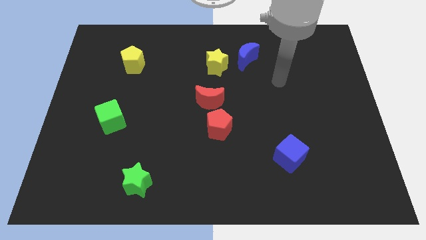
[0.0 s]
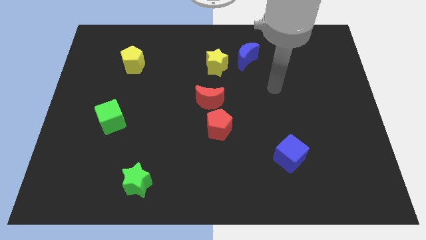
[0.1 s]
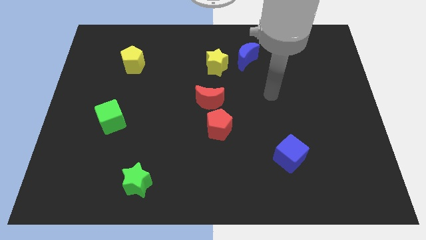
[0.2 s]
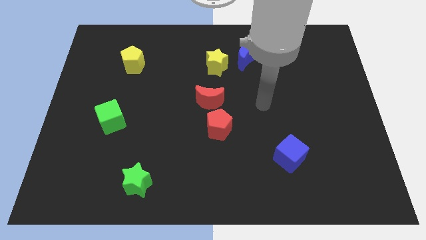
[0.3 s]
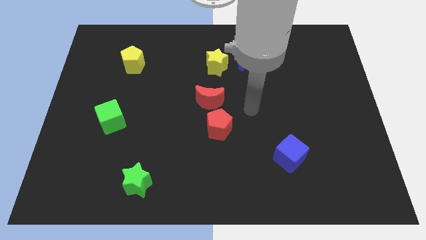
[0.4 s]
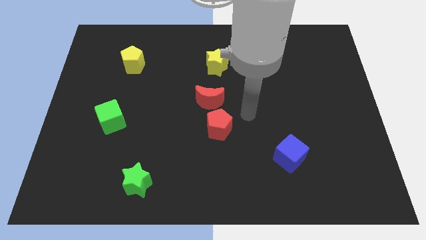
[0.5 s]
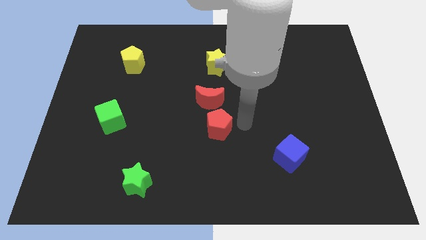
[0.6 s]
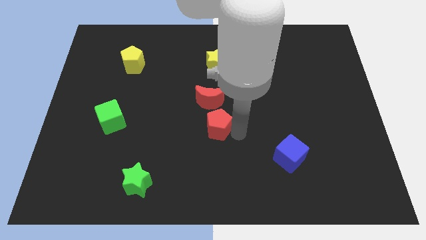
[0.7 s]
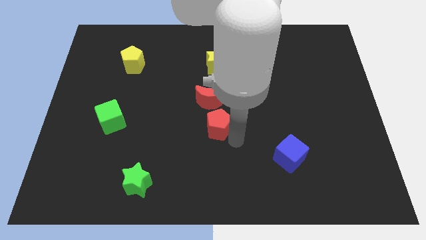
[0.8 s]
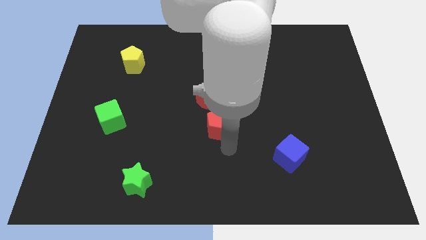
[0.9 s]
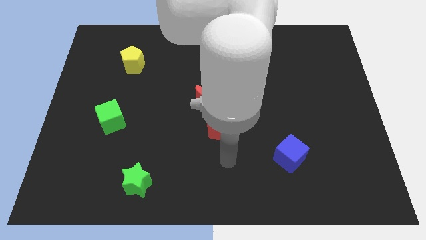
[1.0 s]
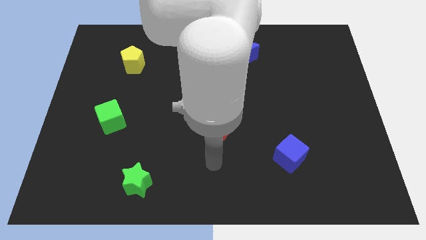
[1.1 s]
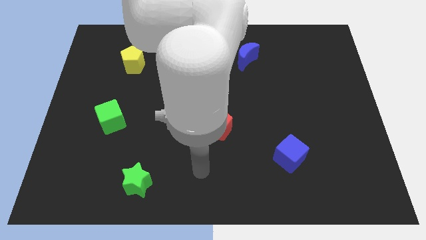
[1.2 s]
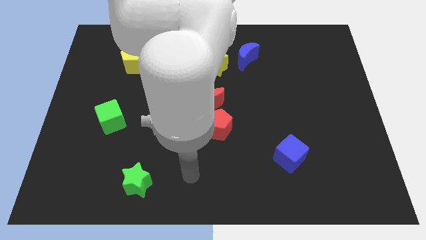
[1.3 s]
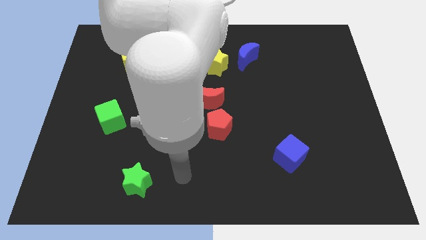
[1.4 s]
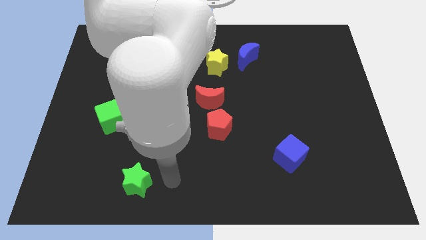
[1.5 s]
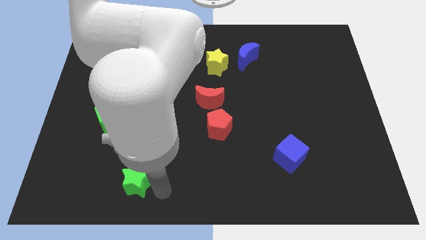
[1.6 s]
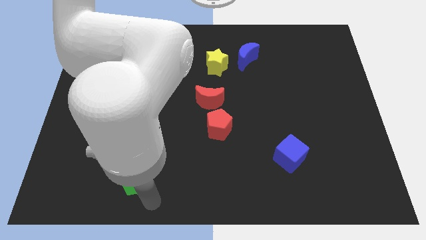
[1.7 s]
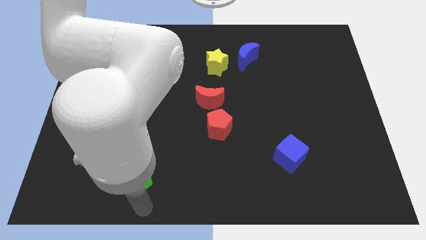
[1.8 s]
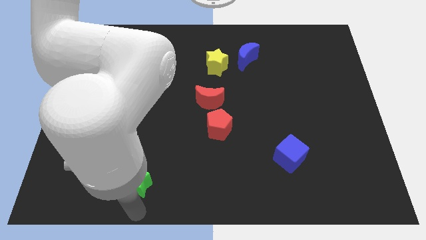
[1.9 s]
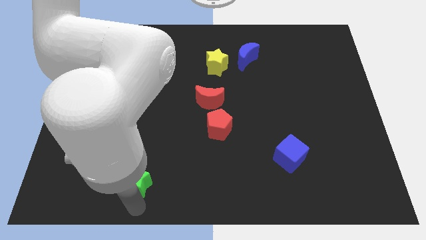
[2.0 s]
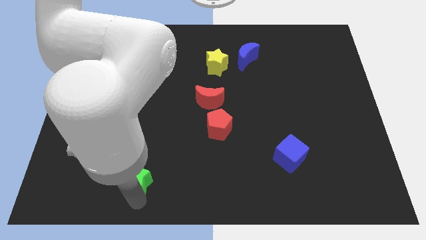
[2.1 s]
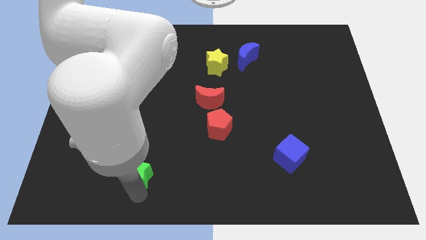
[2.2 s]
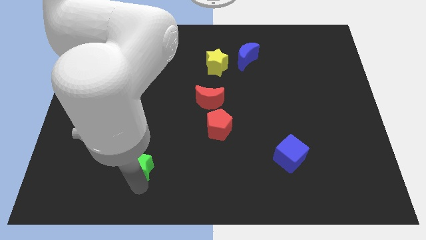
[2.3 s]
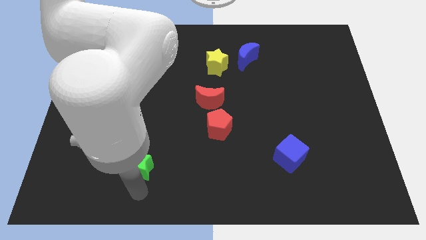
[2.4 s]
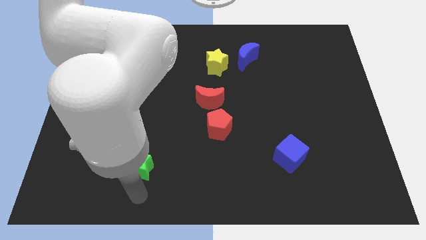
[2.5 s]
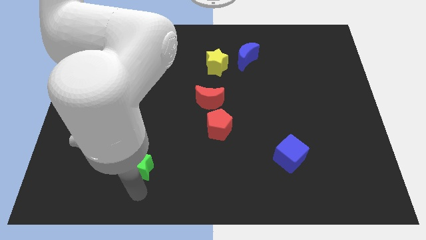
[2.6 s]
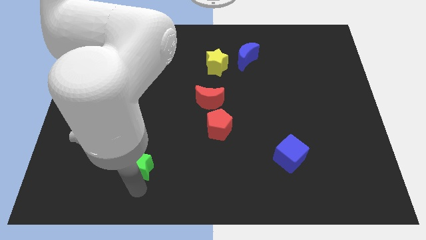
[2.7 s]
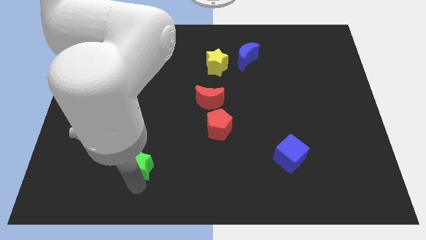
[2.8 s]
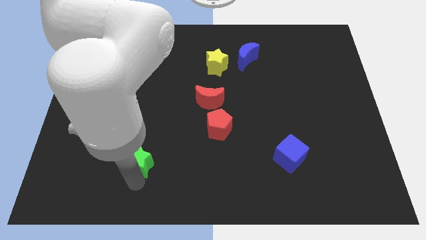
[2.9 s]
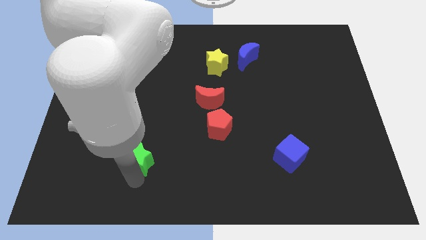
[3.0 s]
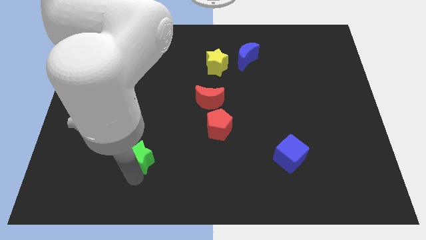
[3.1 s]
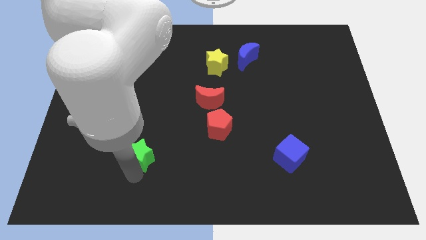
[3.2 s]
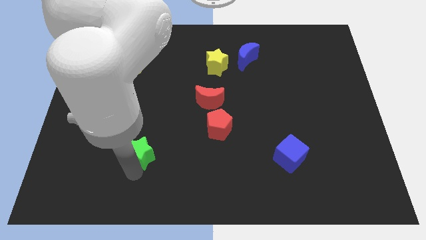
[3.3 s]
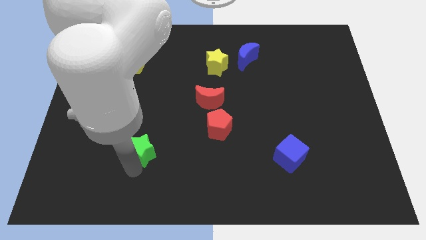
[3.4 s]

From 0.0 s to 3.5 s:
slightly move the green star up

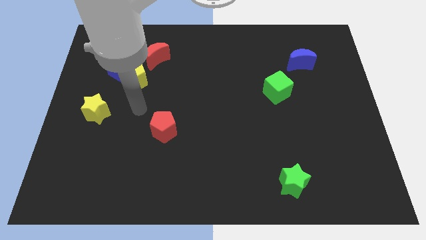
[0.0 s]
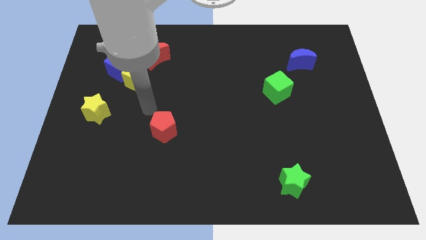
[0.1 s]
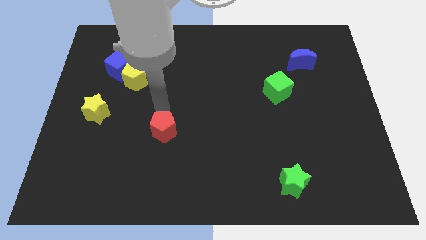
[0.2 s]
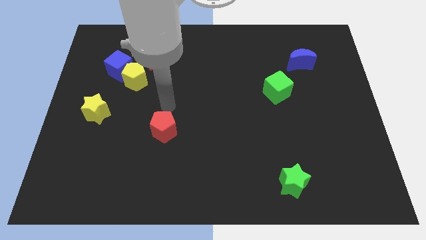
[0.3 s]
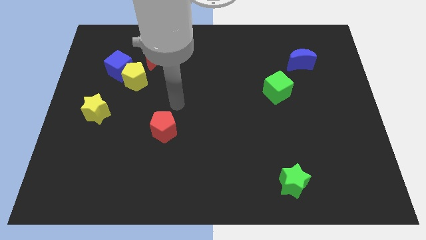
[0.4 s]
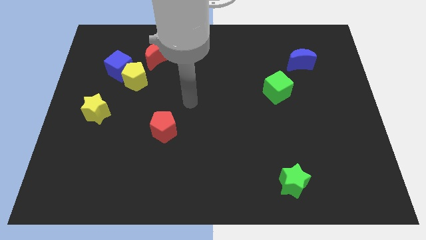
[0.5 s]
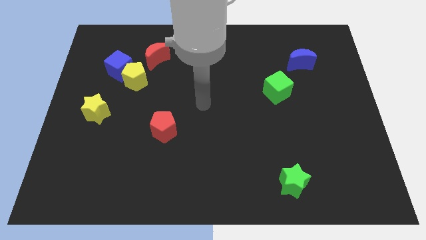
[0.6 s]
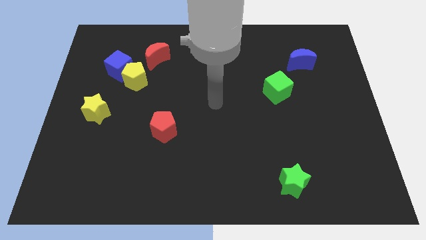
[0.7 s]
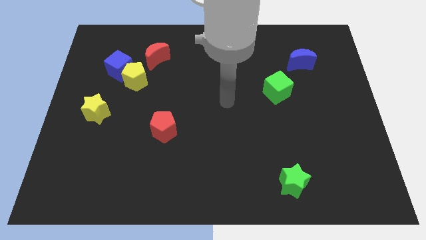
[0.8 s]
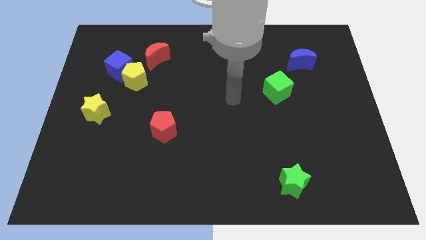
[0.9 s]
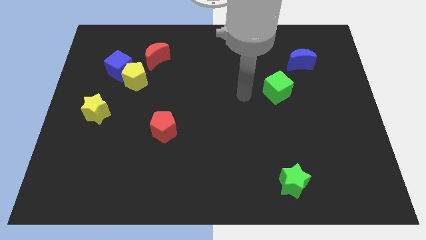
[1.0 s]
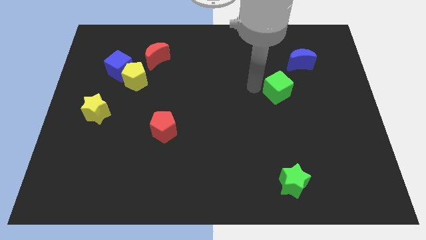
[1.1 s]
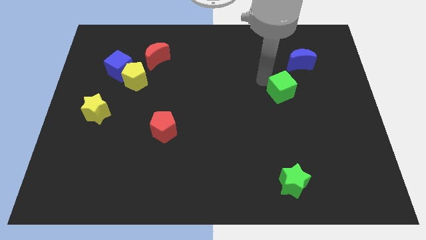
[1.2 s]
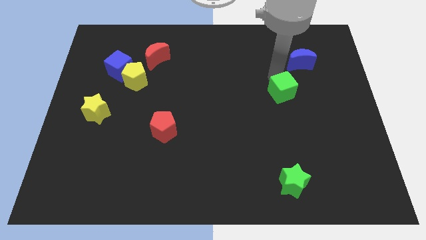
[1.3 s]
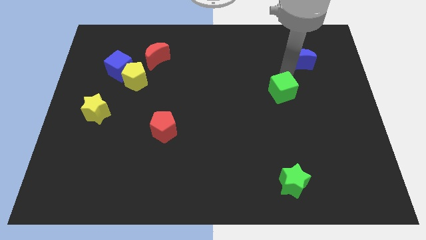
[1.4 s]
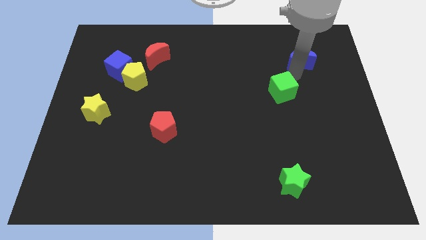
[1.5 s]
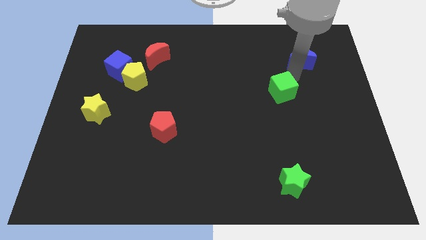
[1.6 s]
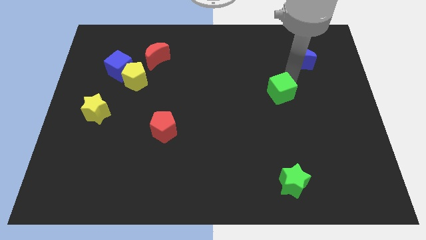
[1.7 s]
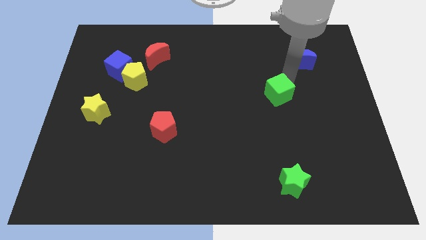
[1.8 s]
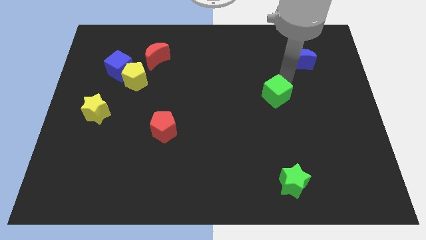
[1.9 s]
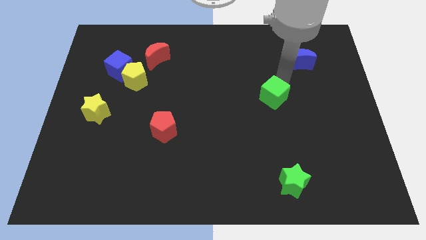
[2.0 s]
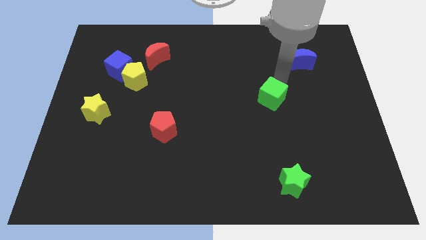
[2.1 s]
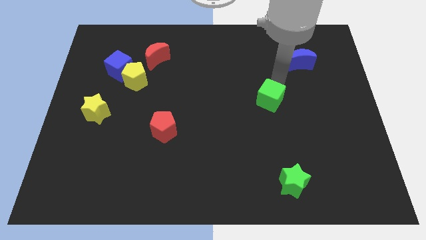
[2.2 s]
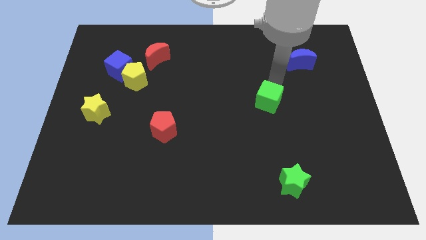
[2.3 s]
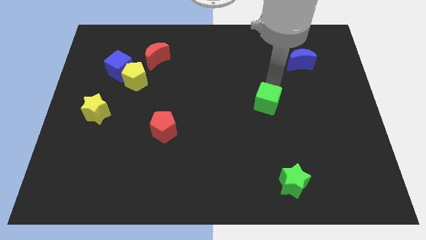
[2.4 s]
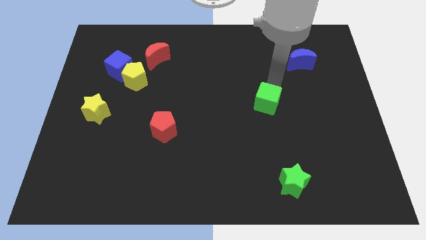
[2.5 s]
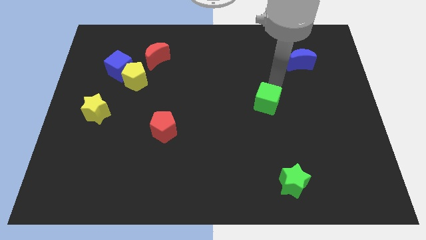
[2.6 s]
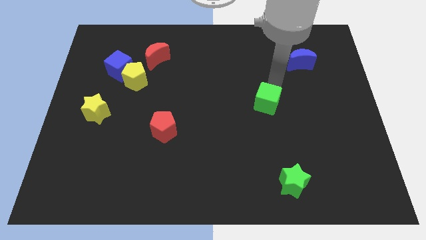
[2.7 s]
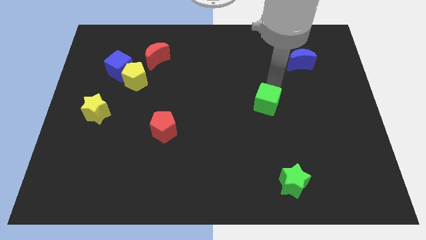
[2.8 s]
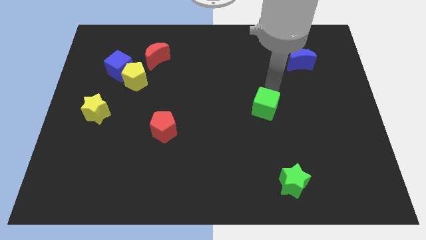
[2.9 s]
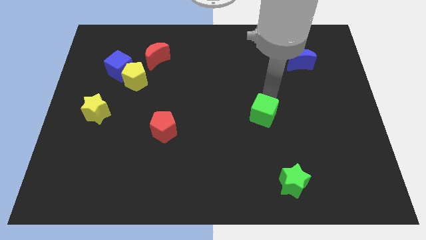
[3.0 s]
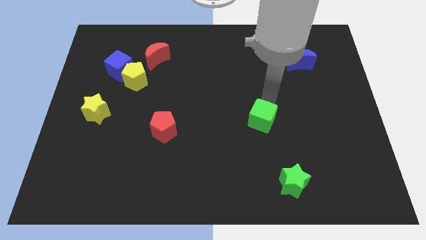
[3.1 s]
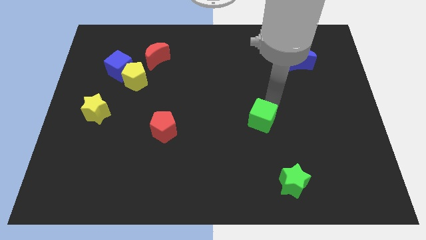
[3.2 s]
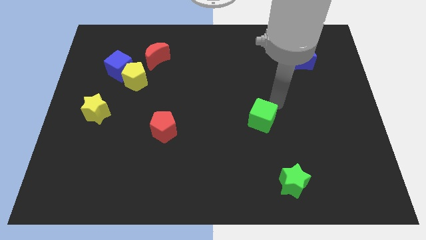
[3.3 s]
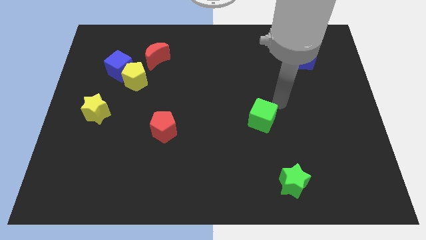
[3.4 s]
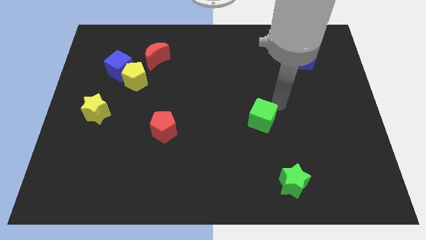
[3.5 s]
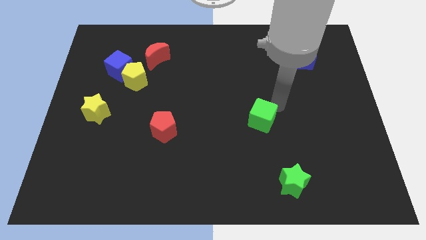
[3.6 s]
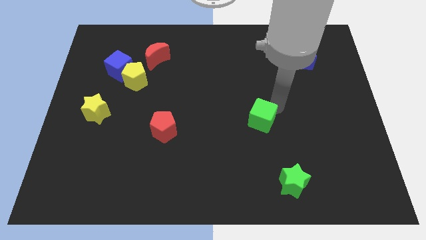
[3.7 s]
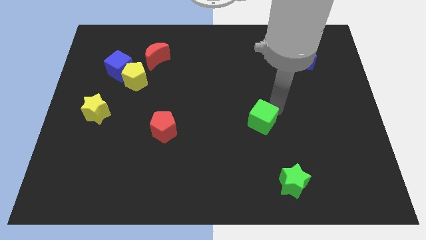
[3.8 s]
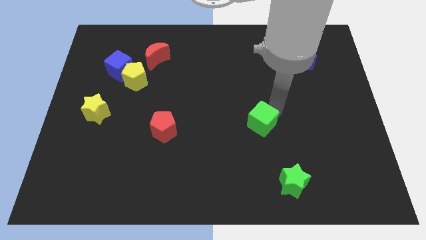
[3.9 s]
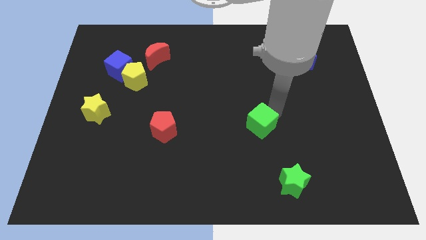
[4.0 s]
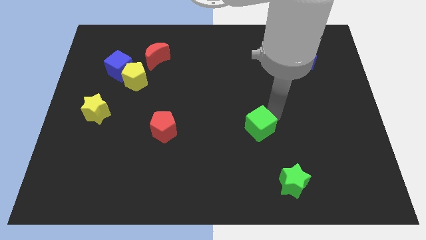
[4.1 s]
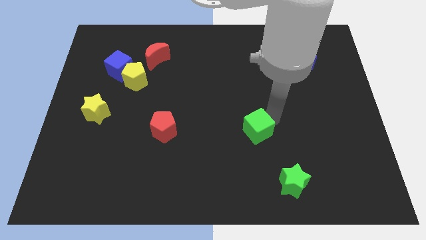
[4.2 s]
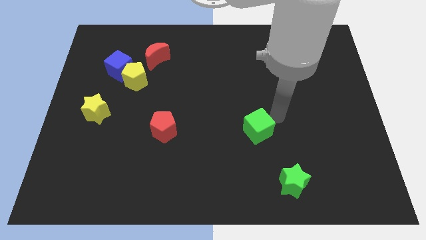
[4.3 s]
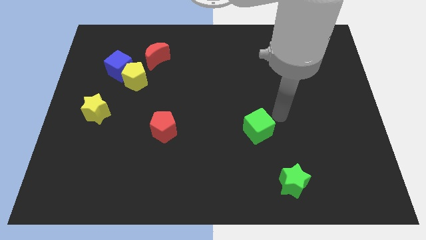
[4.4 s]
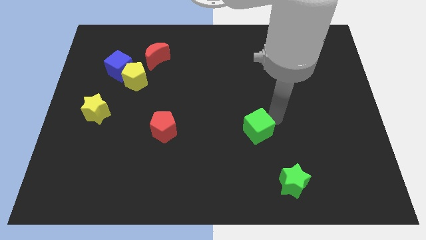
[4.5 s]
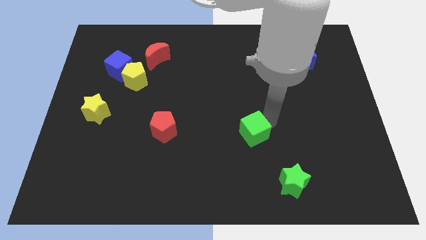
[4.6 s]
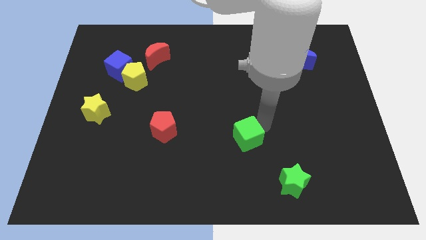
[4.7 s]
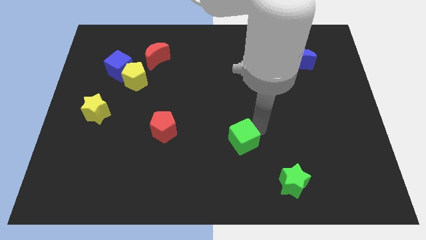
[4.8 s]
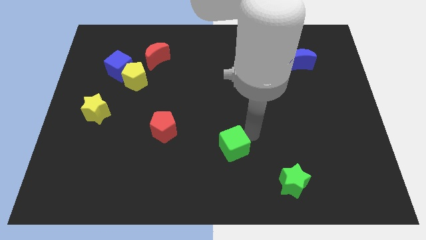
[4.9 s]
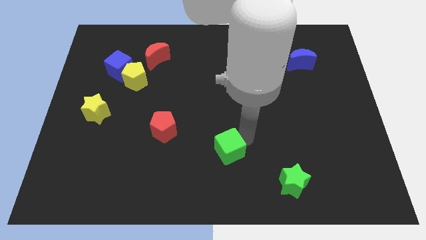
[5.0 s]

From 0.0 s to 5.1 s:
slide the green cube downwards and then to the left
